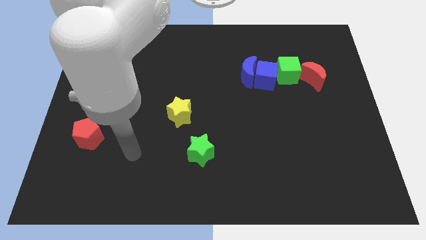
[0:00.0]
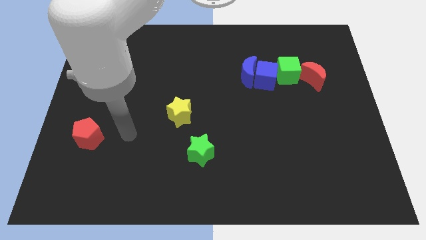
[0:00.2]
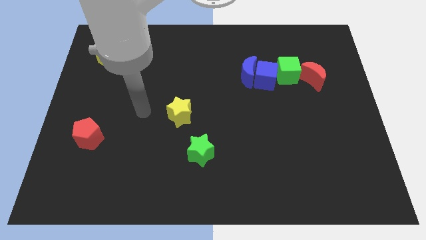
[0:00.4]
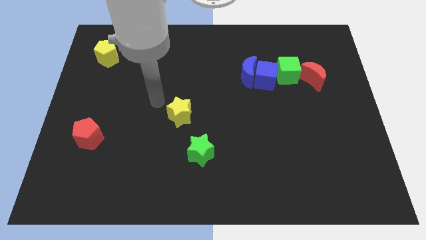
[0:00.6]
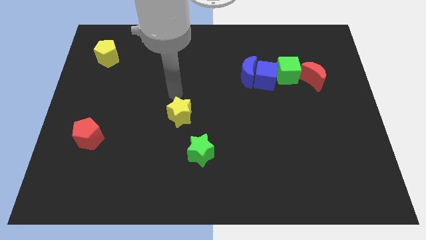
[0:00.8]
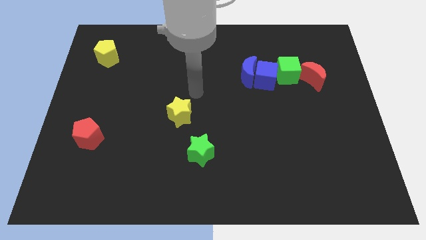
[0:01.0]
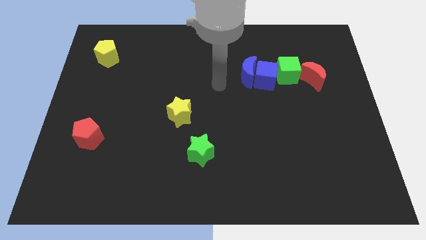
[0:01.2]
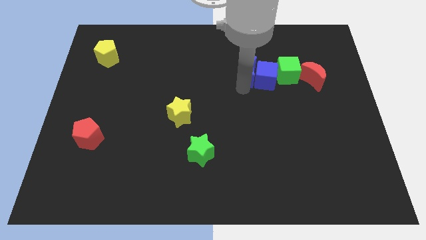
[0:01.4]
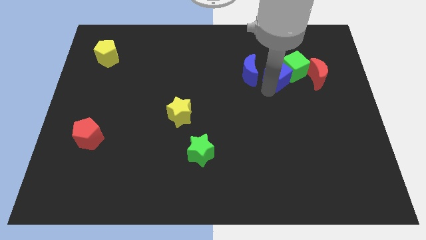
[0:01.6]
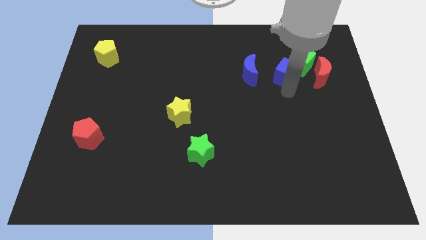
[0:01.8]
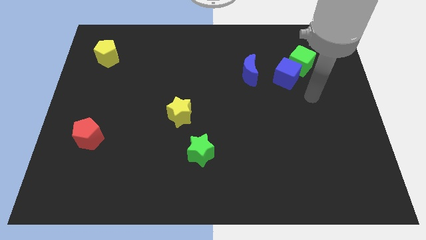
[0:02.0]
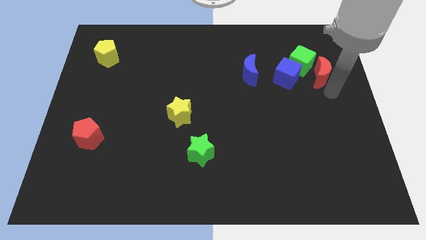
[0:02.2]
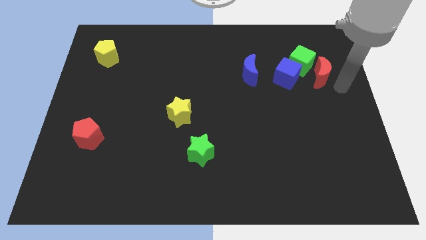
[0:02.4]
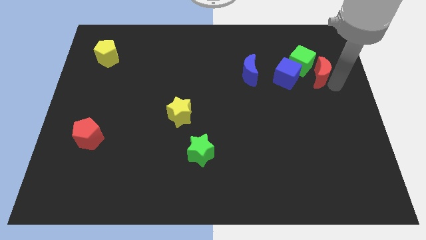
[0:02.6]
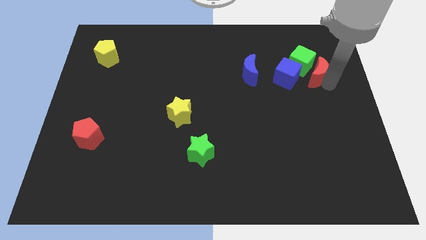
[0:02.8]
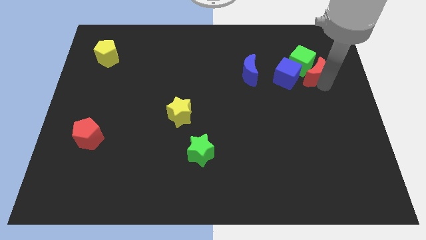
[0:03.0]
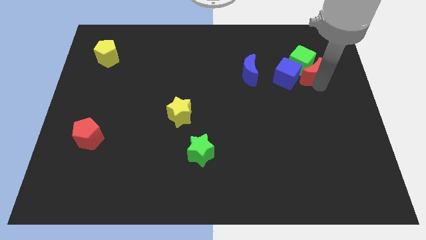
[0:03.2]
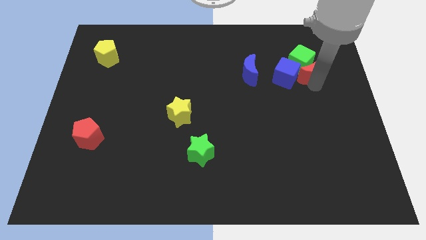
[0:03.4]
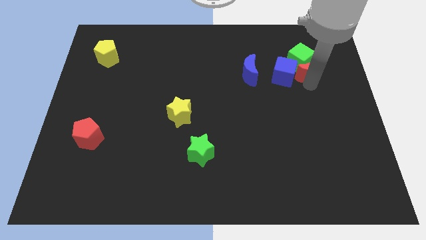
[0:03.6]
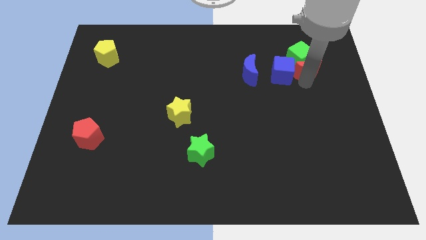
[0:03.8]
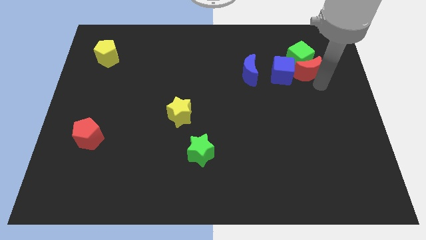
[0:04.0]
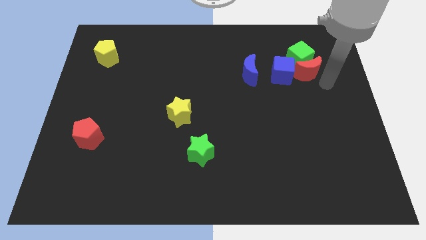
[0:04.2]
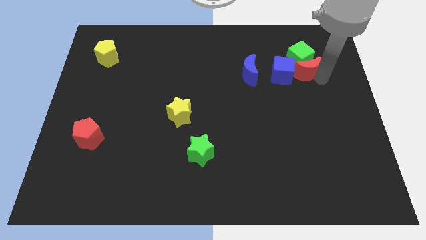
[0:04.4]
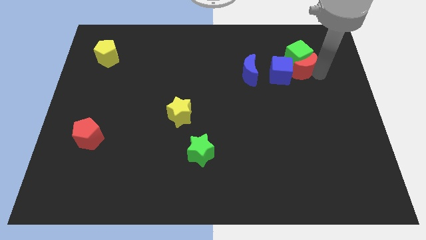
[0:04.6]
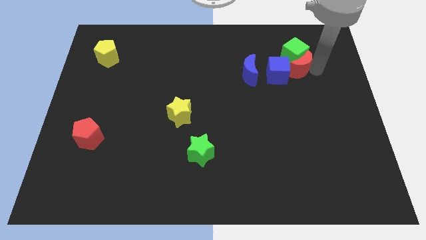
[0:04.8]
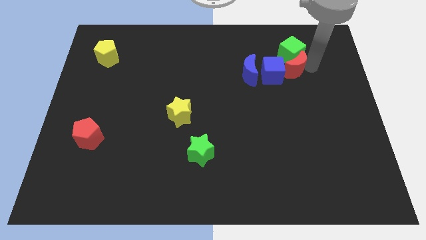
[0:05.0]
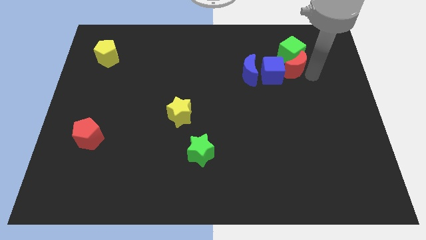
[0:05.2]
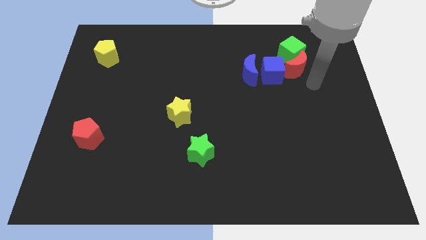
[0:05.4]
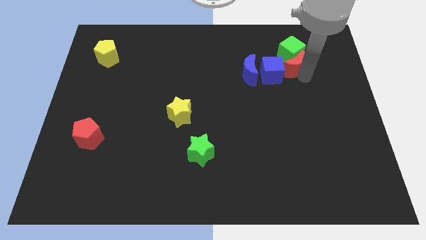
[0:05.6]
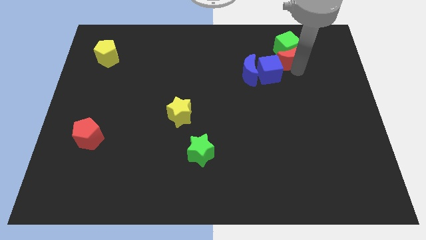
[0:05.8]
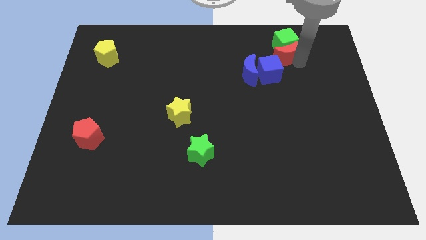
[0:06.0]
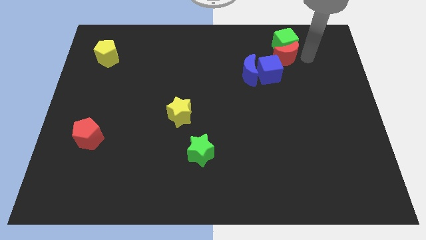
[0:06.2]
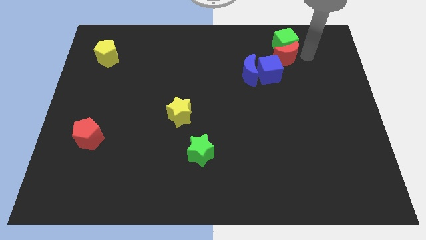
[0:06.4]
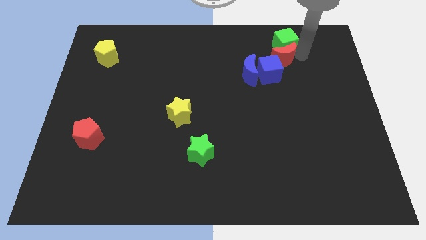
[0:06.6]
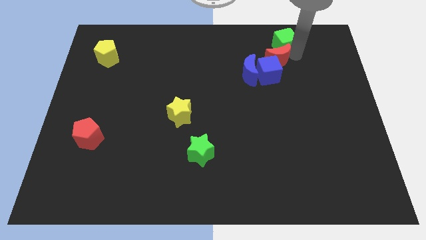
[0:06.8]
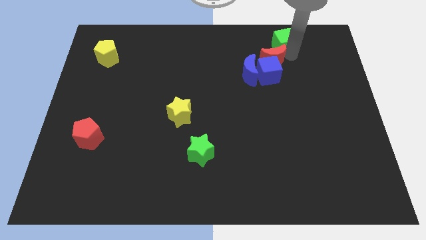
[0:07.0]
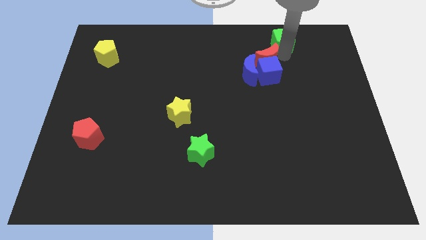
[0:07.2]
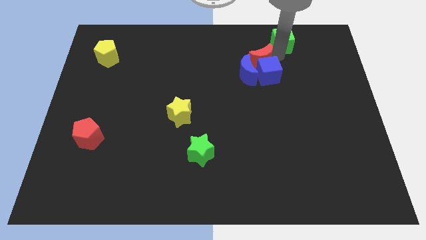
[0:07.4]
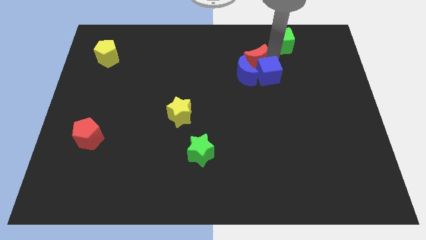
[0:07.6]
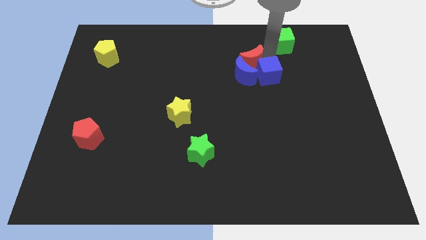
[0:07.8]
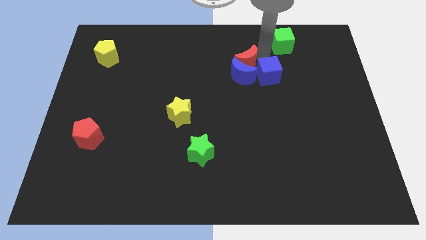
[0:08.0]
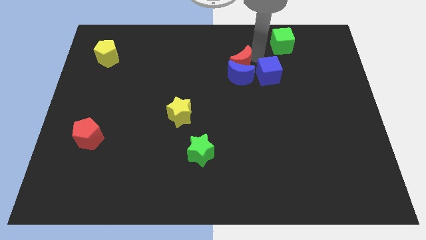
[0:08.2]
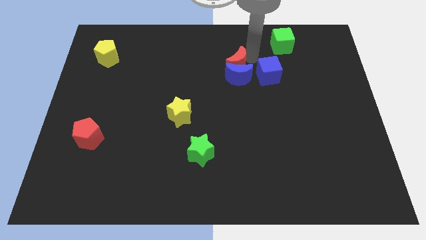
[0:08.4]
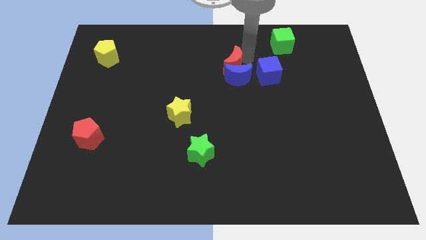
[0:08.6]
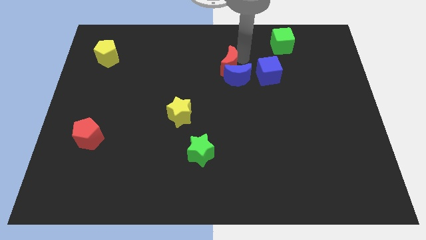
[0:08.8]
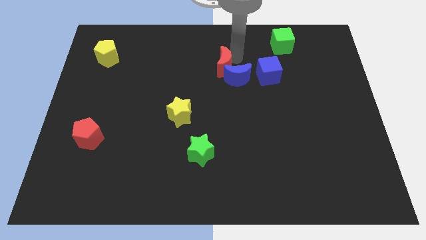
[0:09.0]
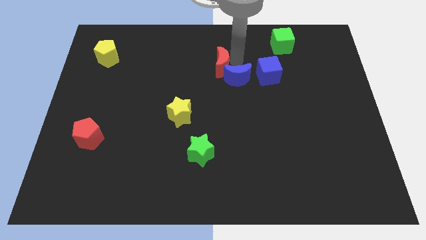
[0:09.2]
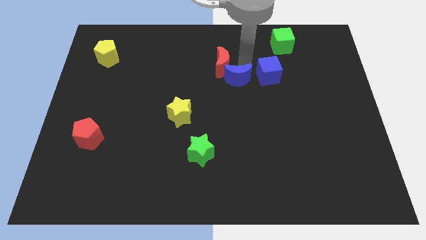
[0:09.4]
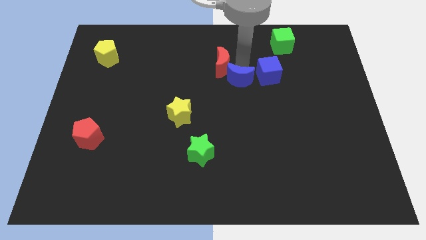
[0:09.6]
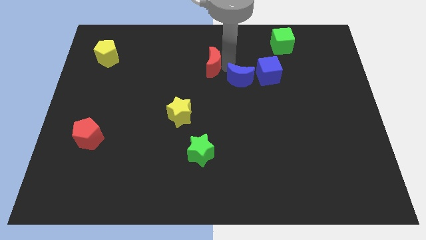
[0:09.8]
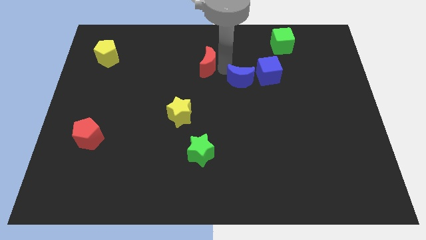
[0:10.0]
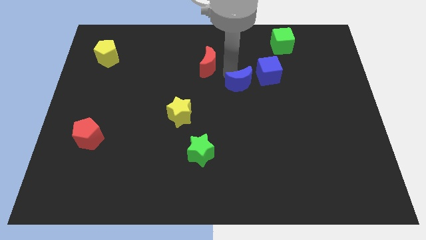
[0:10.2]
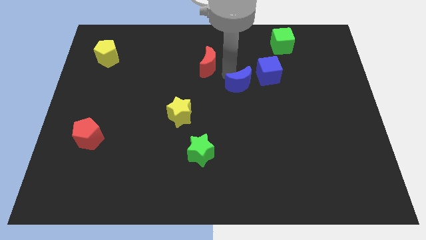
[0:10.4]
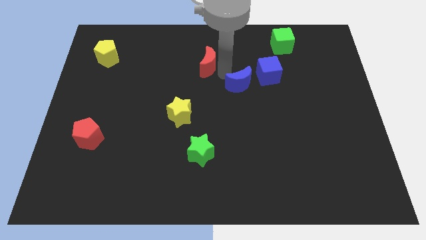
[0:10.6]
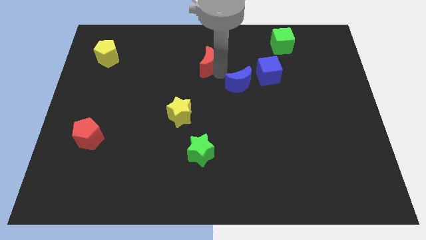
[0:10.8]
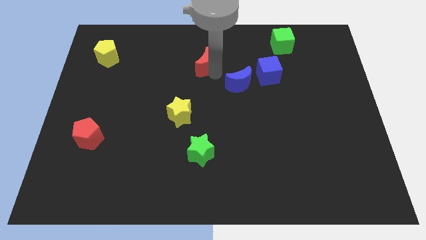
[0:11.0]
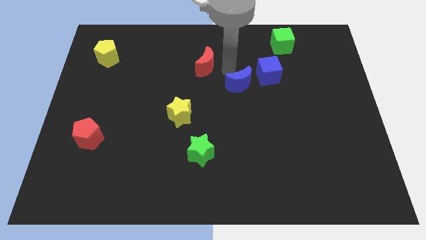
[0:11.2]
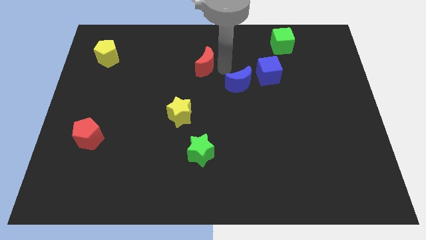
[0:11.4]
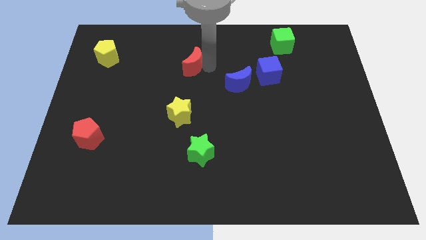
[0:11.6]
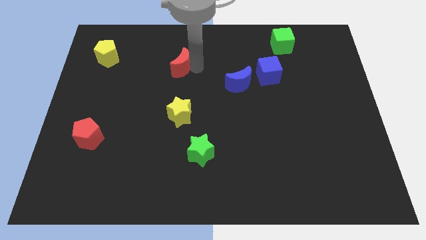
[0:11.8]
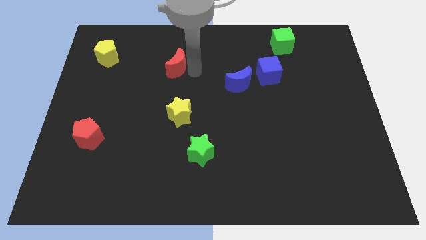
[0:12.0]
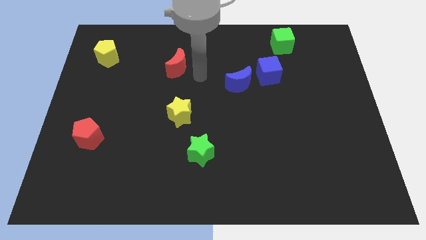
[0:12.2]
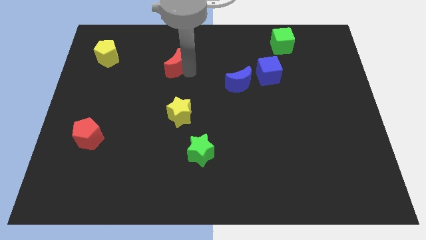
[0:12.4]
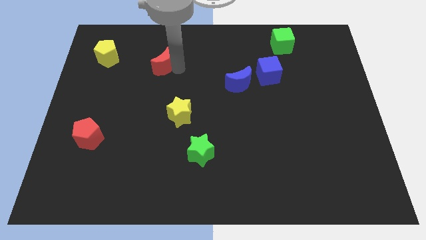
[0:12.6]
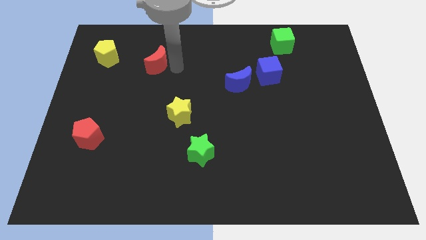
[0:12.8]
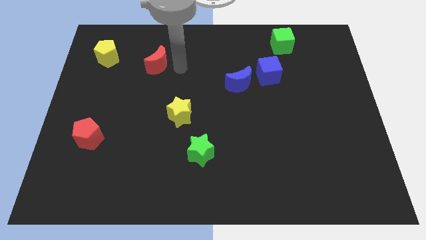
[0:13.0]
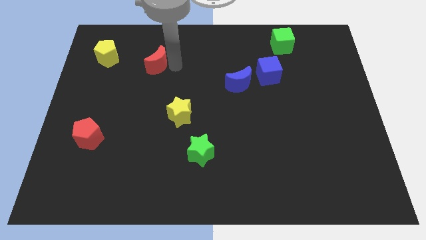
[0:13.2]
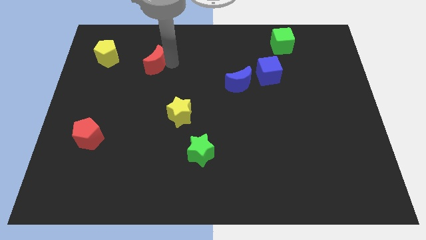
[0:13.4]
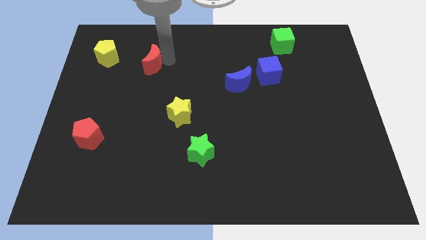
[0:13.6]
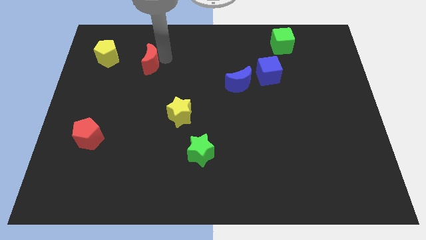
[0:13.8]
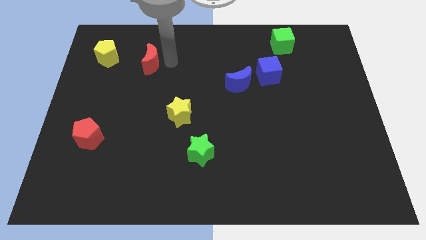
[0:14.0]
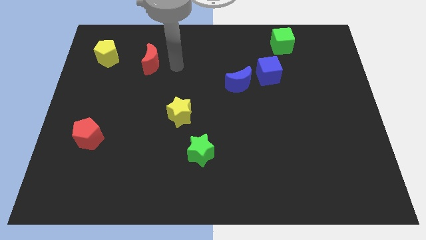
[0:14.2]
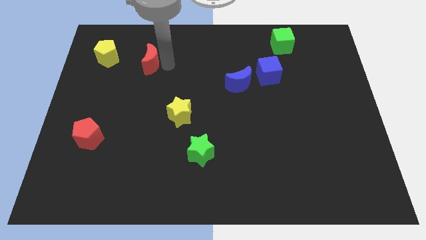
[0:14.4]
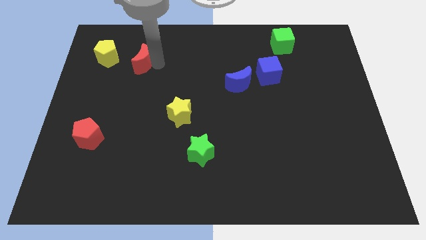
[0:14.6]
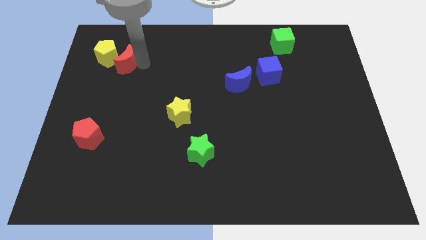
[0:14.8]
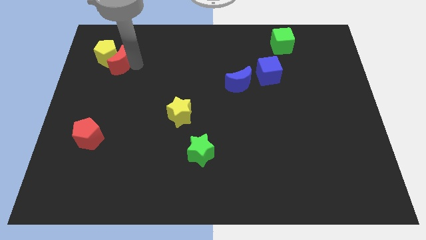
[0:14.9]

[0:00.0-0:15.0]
move the red moon to the yellow pentagon

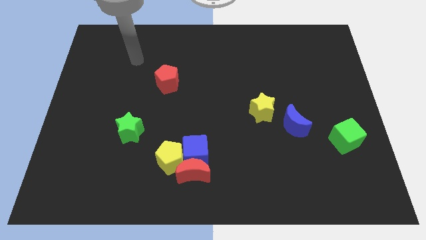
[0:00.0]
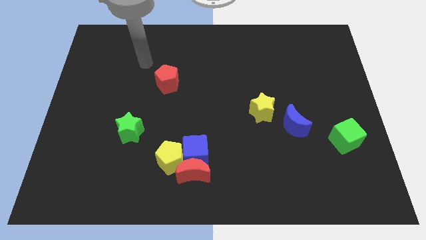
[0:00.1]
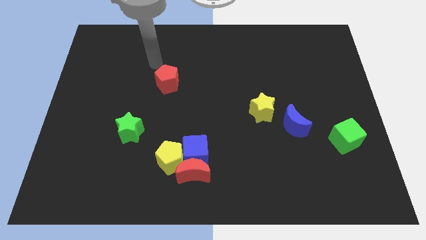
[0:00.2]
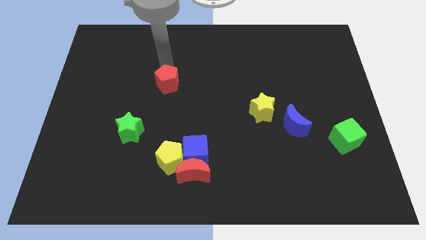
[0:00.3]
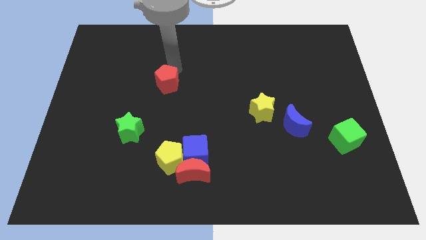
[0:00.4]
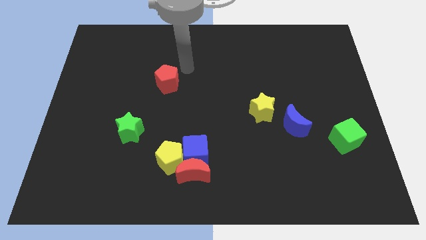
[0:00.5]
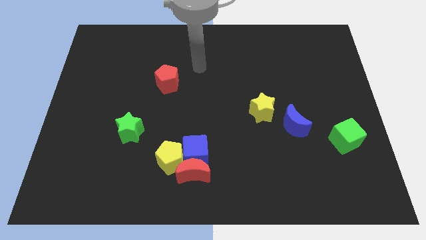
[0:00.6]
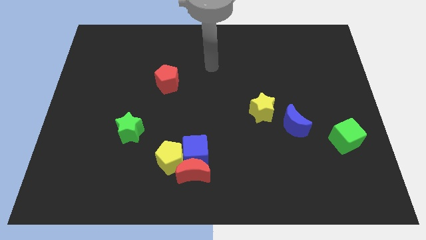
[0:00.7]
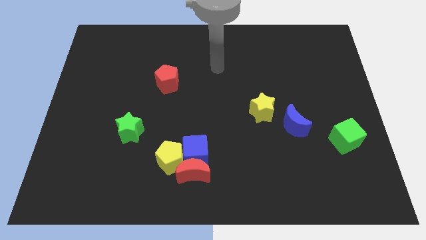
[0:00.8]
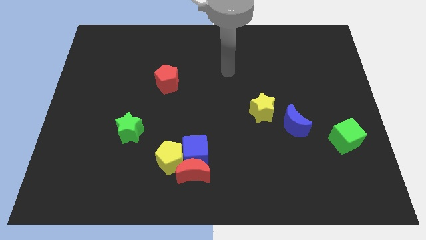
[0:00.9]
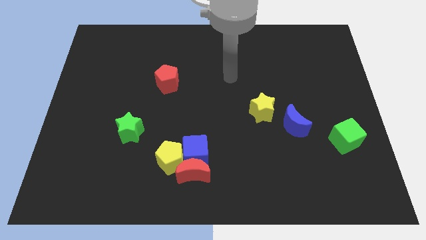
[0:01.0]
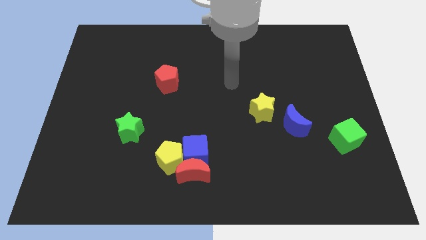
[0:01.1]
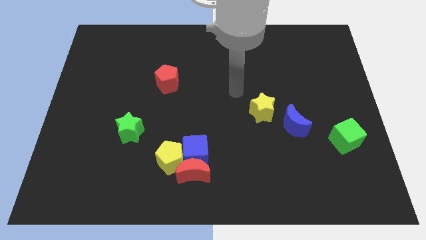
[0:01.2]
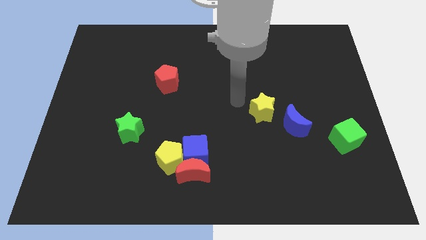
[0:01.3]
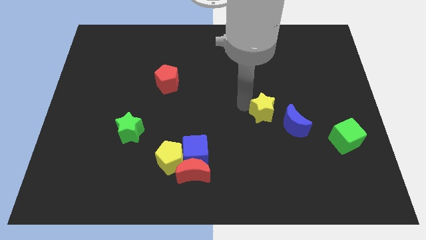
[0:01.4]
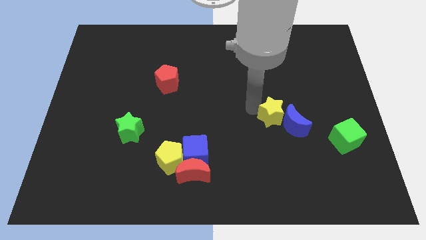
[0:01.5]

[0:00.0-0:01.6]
slide the yellow star towards the blue moon
